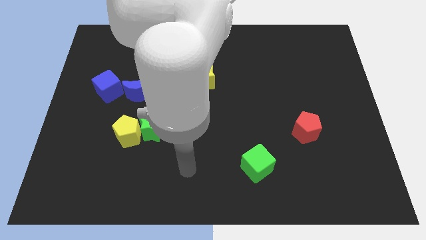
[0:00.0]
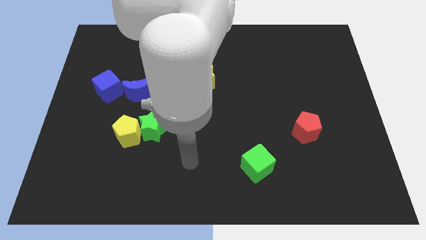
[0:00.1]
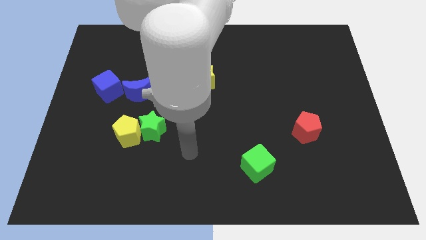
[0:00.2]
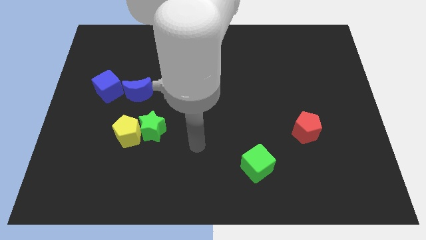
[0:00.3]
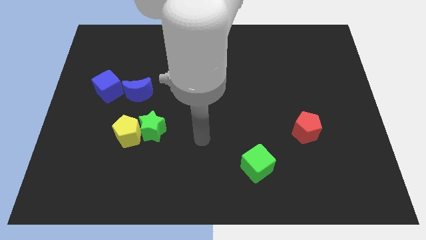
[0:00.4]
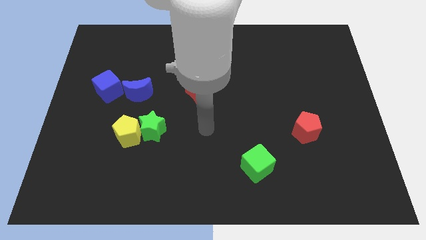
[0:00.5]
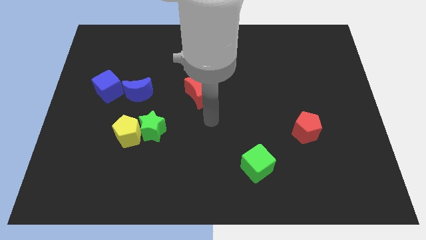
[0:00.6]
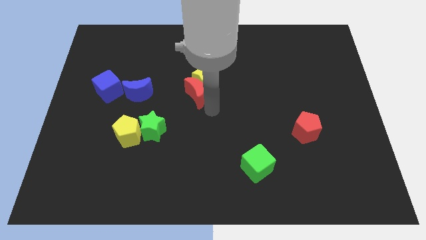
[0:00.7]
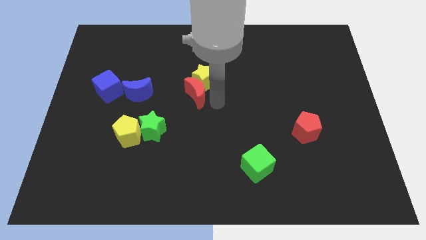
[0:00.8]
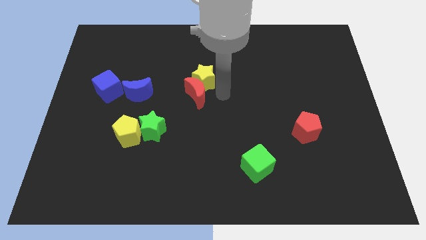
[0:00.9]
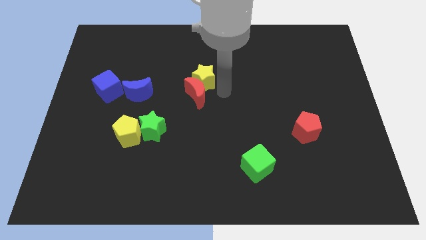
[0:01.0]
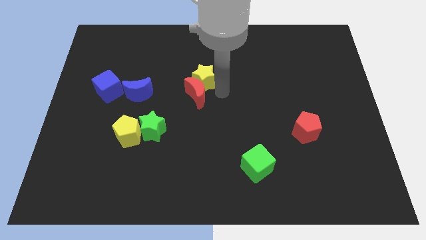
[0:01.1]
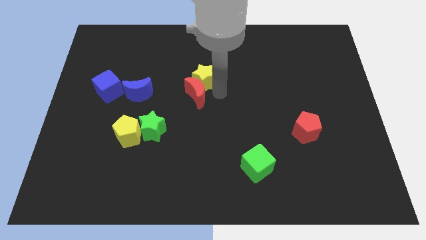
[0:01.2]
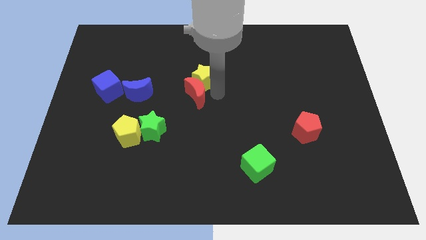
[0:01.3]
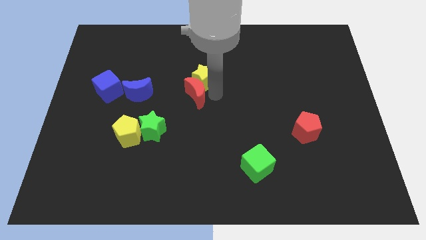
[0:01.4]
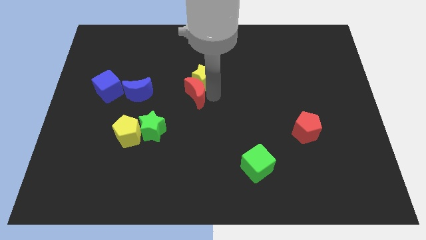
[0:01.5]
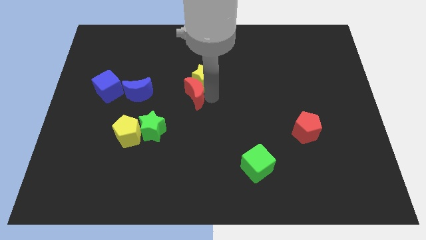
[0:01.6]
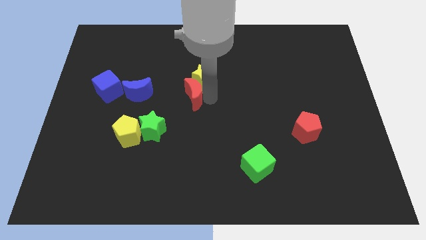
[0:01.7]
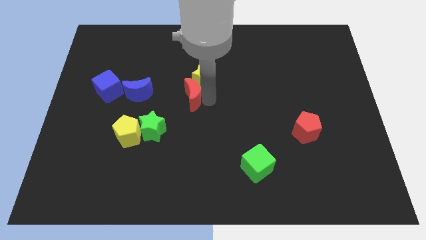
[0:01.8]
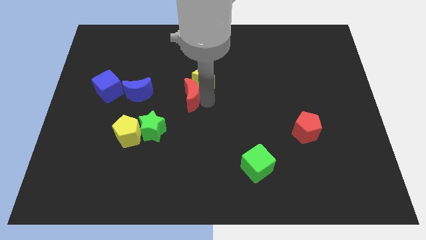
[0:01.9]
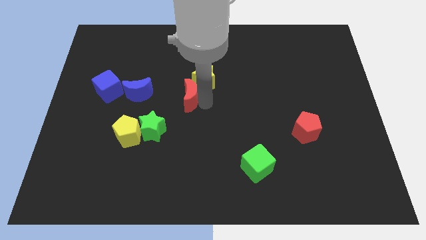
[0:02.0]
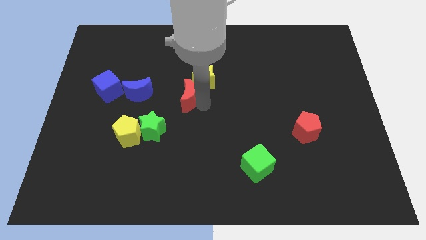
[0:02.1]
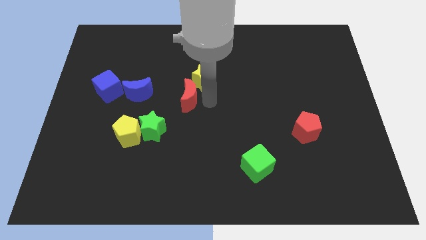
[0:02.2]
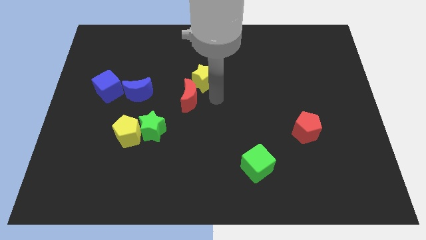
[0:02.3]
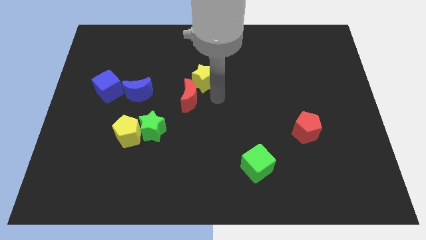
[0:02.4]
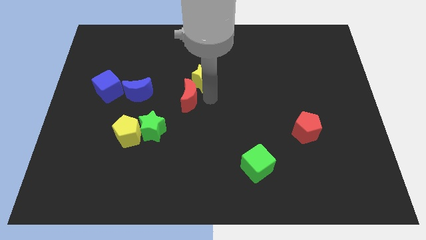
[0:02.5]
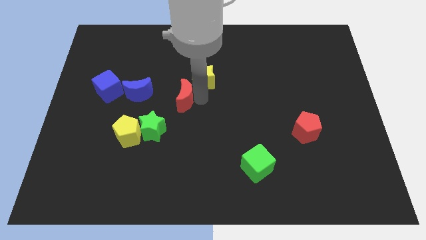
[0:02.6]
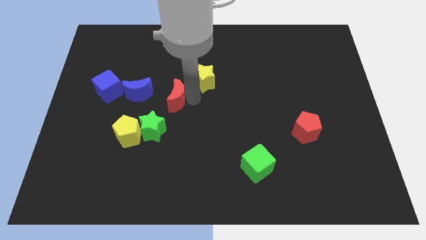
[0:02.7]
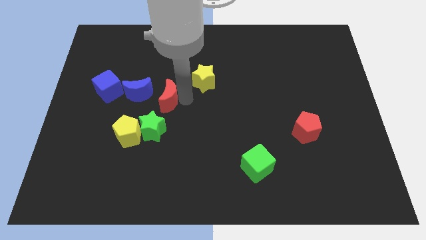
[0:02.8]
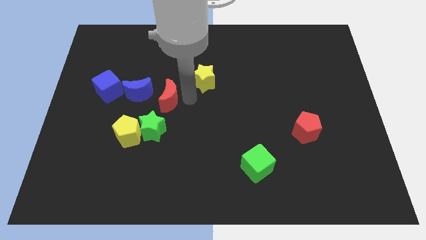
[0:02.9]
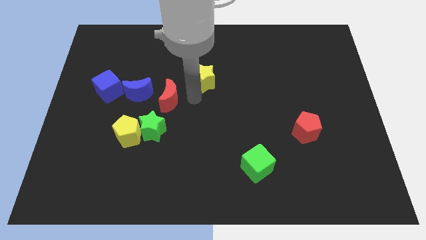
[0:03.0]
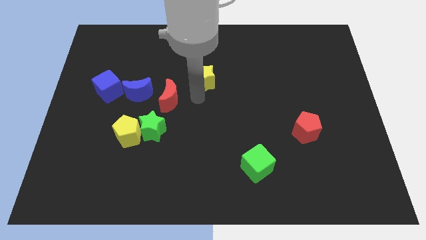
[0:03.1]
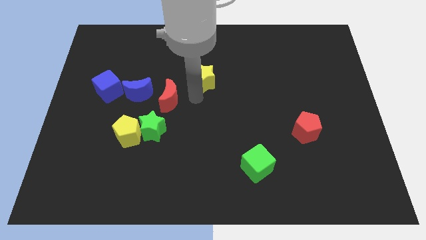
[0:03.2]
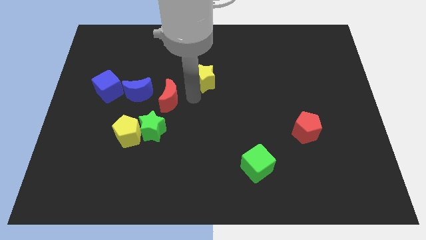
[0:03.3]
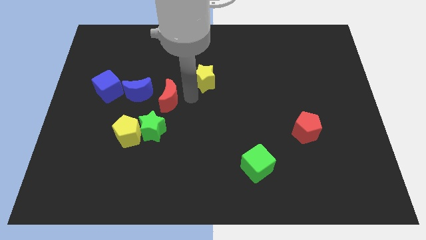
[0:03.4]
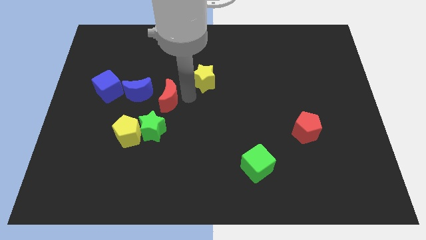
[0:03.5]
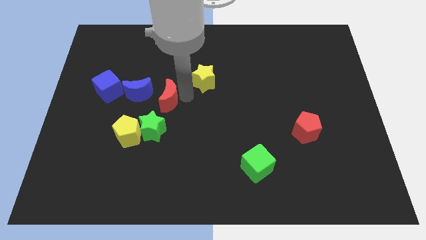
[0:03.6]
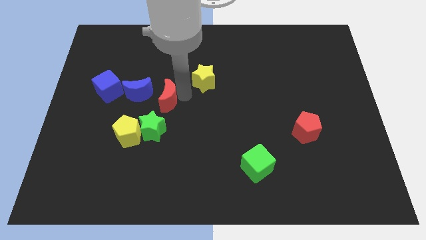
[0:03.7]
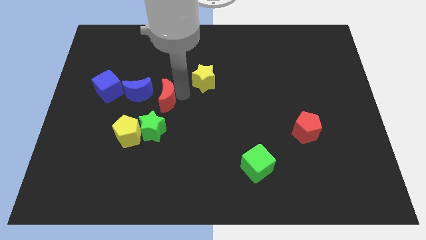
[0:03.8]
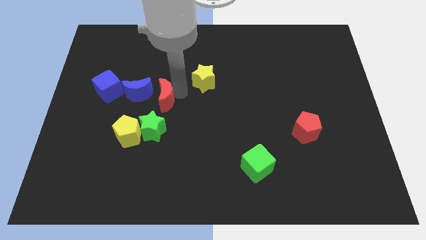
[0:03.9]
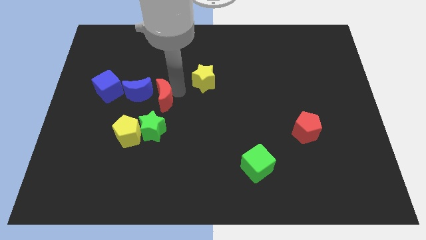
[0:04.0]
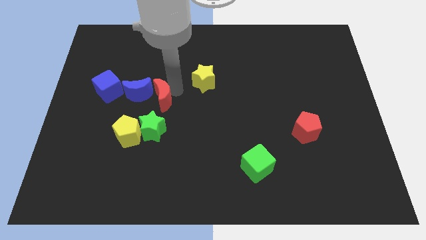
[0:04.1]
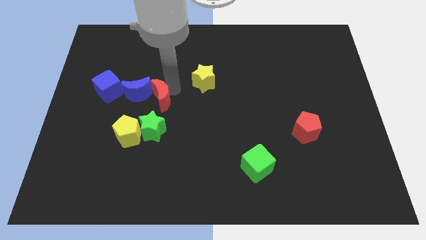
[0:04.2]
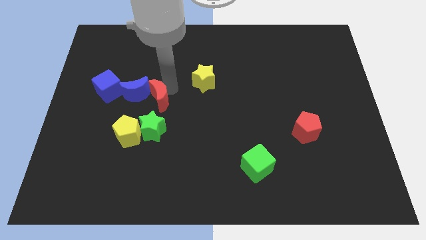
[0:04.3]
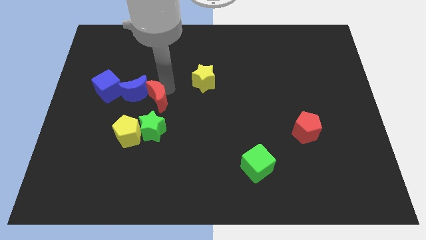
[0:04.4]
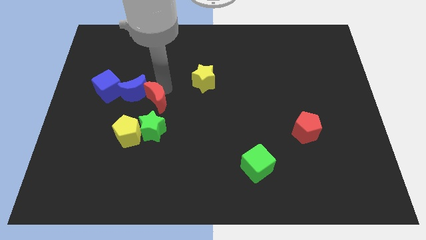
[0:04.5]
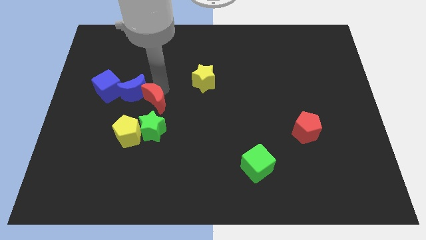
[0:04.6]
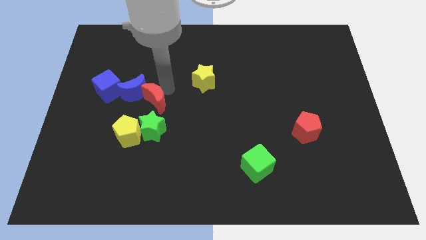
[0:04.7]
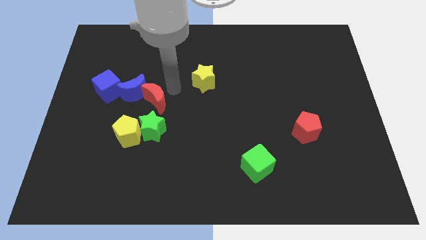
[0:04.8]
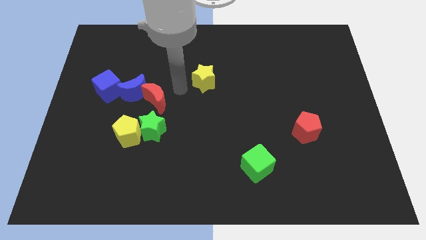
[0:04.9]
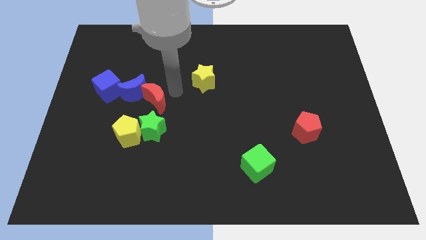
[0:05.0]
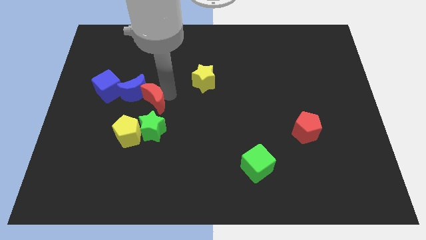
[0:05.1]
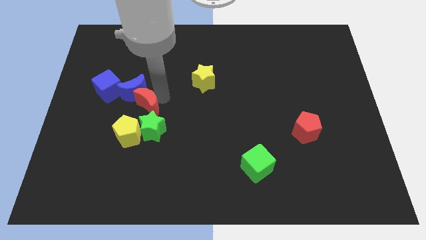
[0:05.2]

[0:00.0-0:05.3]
slide the red moon diagonally up and to the left of the green star

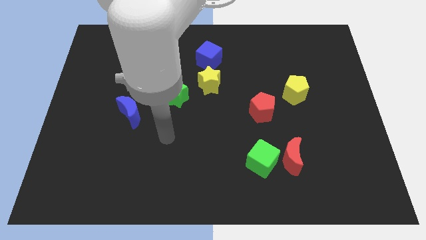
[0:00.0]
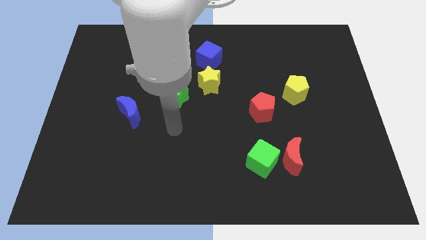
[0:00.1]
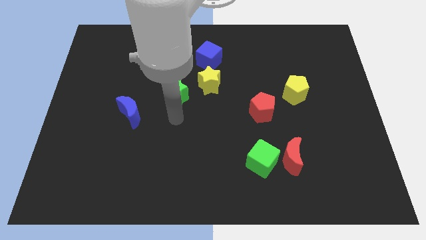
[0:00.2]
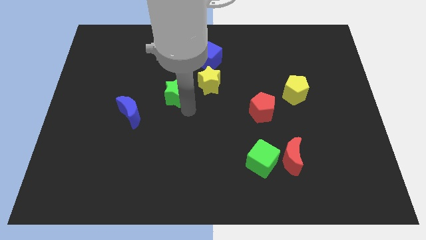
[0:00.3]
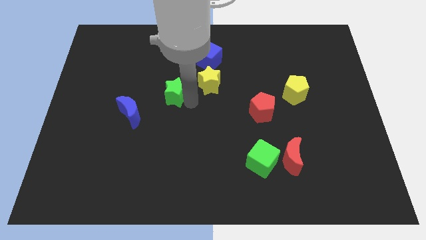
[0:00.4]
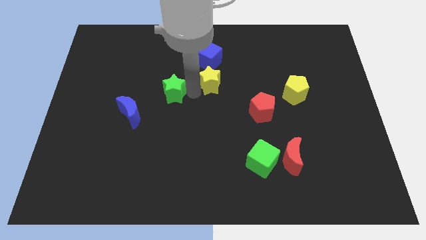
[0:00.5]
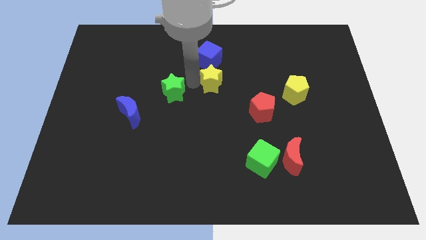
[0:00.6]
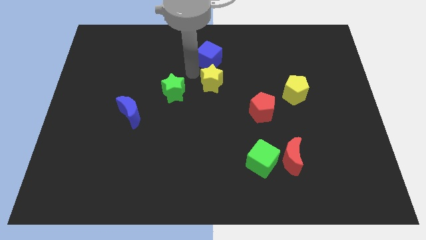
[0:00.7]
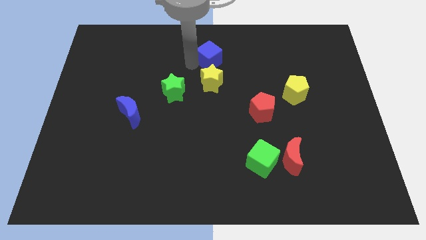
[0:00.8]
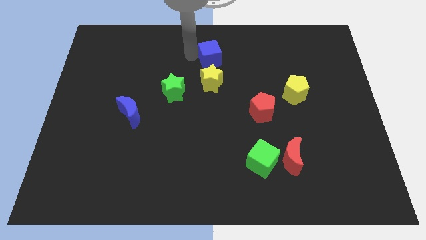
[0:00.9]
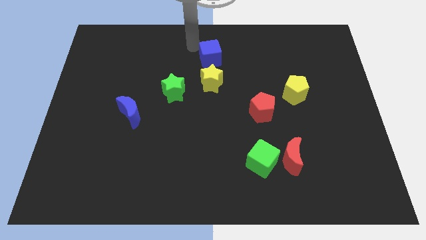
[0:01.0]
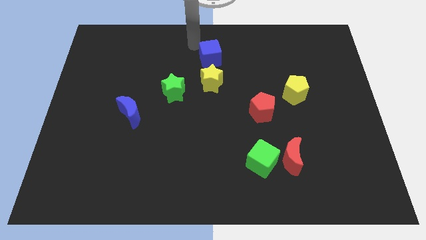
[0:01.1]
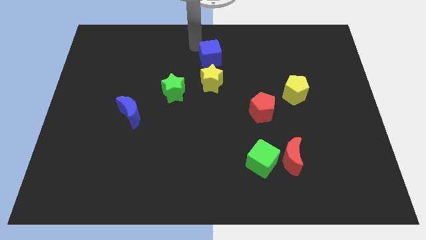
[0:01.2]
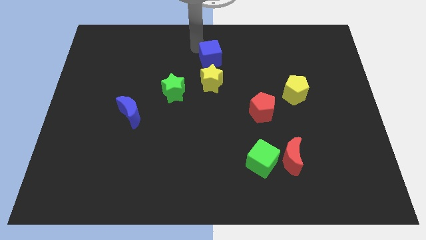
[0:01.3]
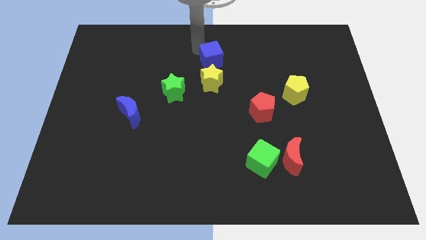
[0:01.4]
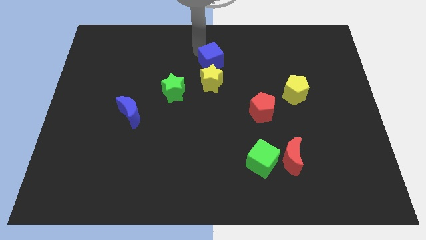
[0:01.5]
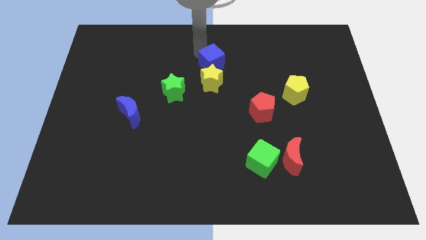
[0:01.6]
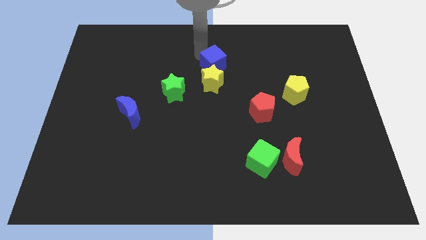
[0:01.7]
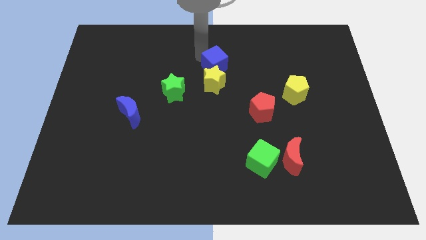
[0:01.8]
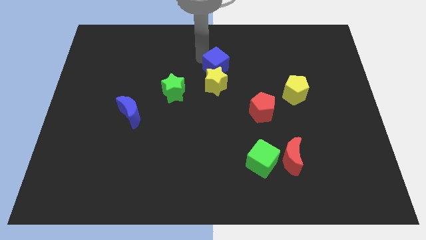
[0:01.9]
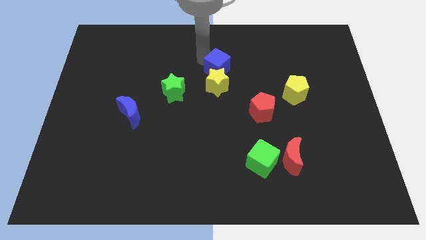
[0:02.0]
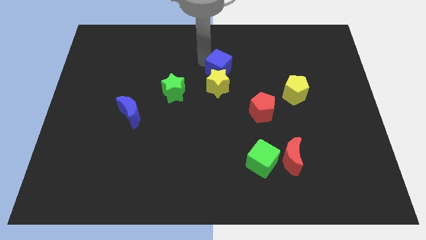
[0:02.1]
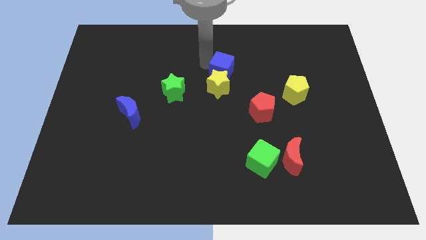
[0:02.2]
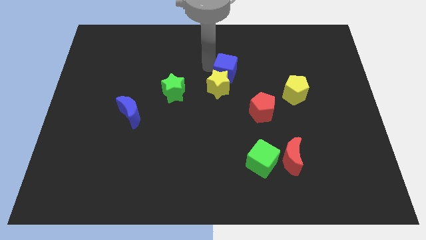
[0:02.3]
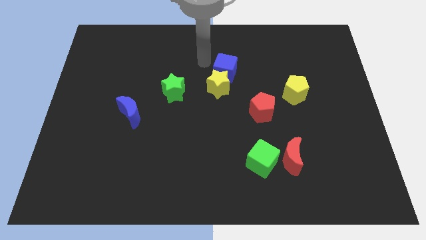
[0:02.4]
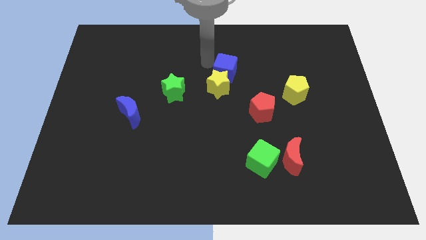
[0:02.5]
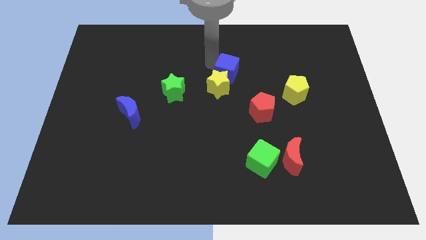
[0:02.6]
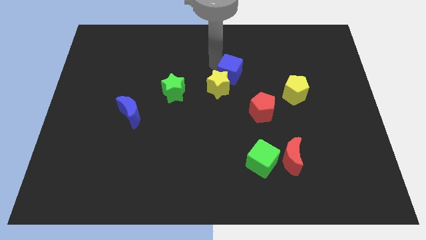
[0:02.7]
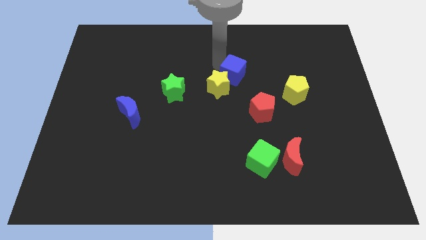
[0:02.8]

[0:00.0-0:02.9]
move the blue cube to the right of the yellow star
